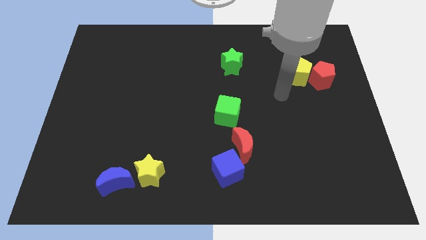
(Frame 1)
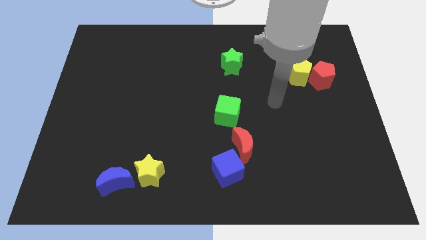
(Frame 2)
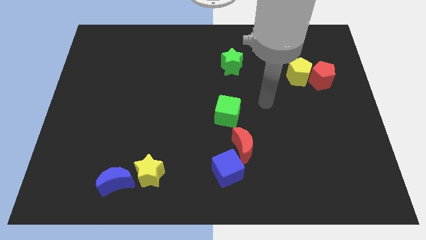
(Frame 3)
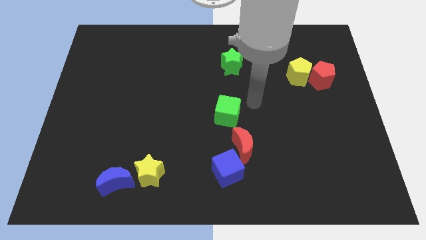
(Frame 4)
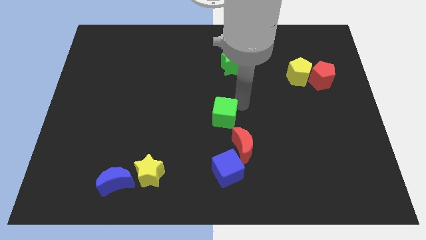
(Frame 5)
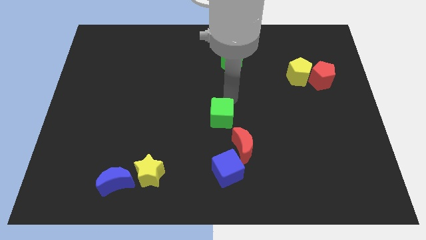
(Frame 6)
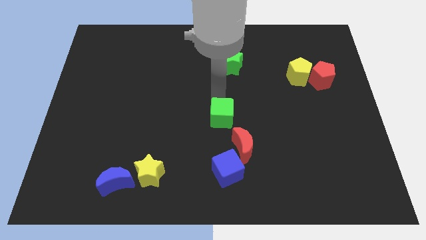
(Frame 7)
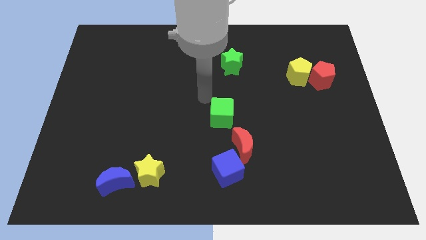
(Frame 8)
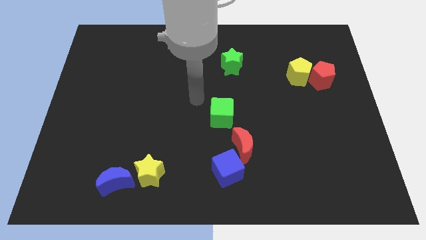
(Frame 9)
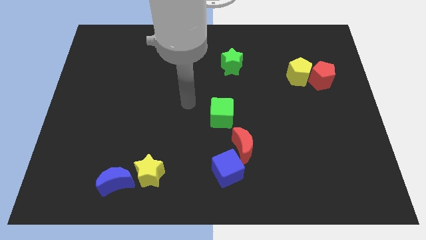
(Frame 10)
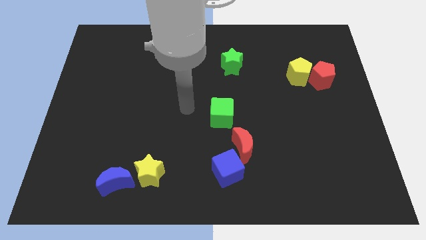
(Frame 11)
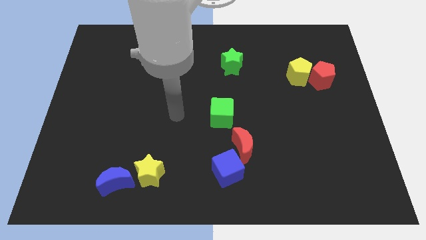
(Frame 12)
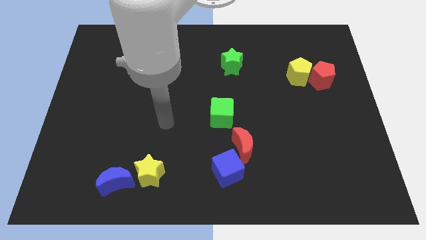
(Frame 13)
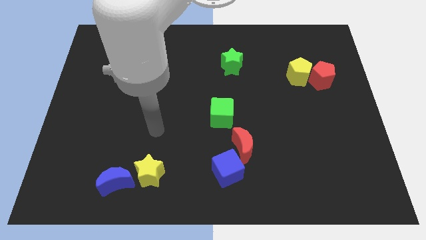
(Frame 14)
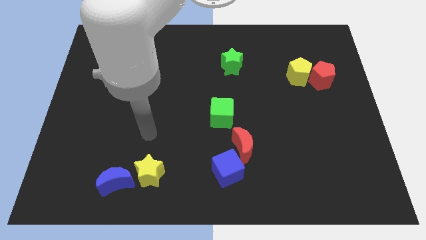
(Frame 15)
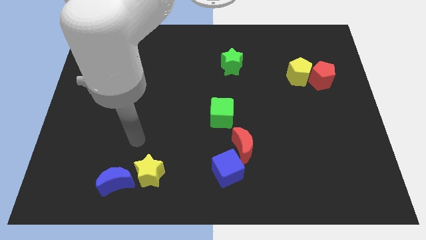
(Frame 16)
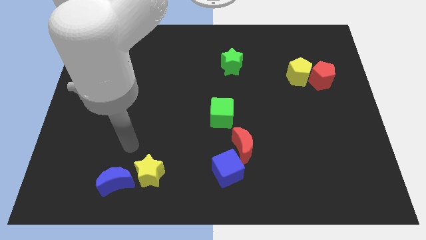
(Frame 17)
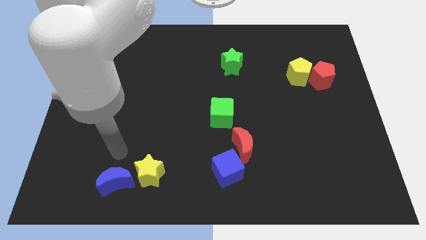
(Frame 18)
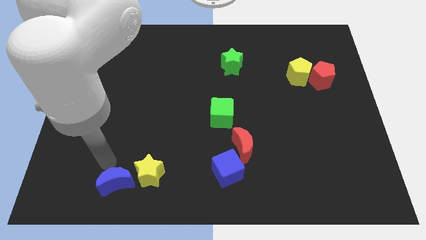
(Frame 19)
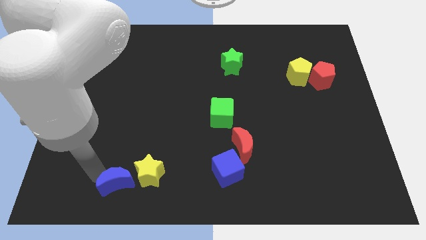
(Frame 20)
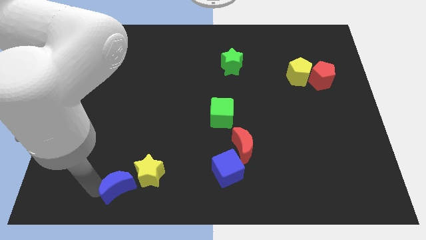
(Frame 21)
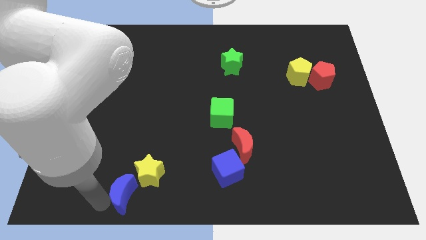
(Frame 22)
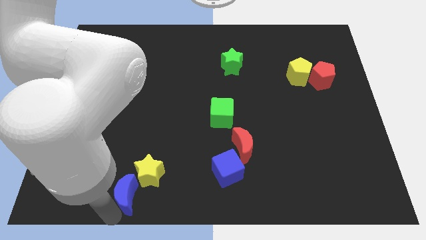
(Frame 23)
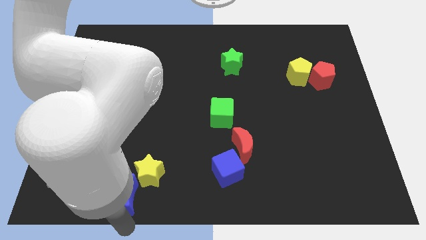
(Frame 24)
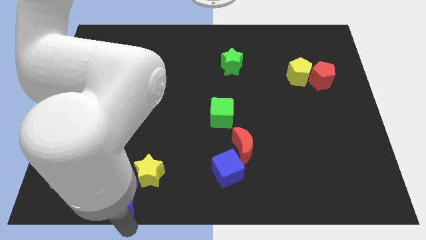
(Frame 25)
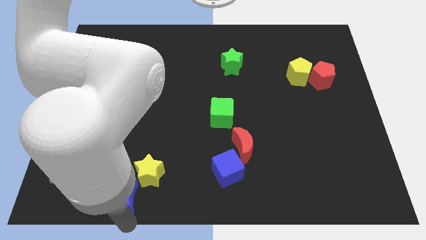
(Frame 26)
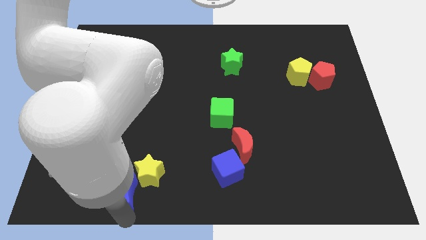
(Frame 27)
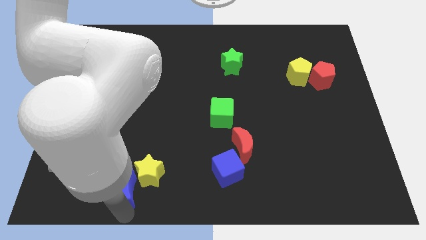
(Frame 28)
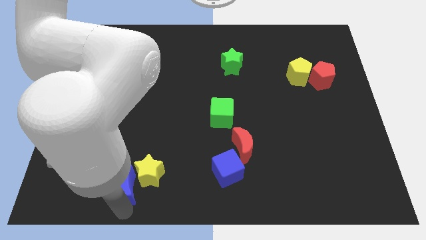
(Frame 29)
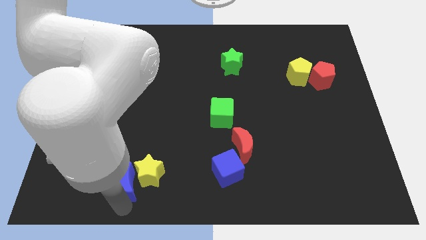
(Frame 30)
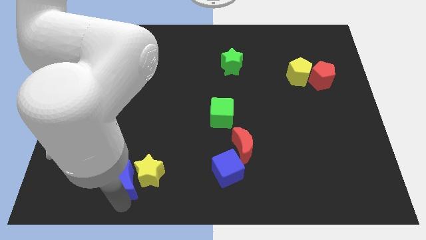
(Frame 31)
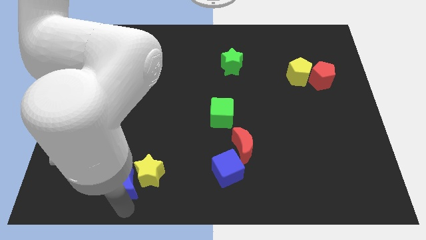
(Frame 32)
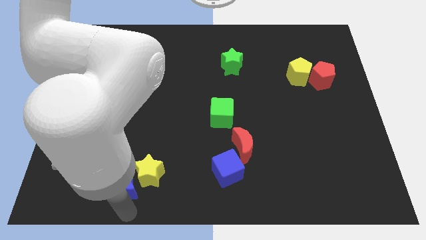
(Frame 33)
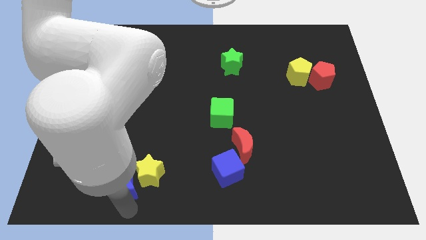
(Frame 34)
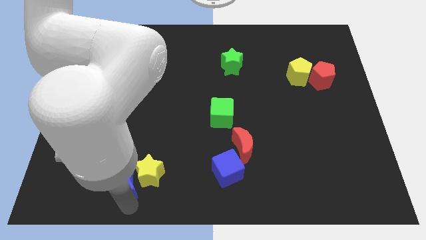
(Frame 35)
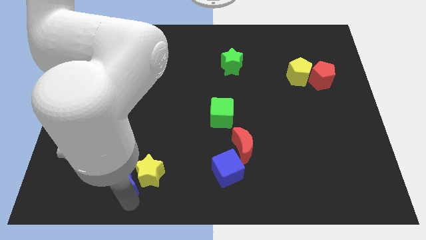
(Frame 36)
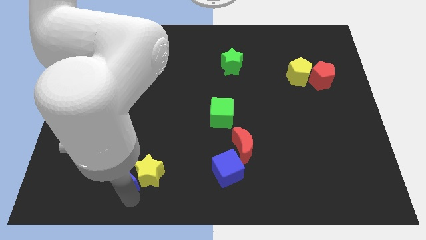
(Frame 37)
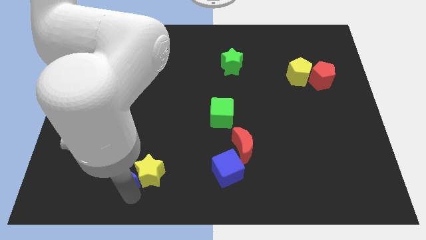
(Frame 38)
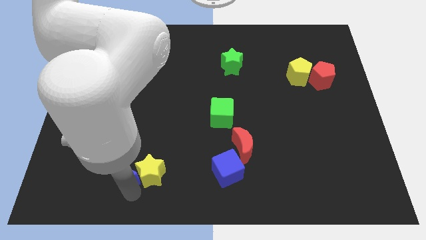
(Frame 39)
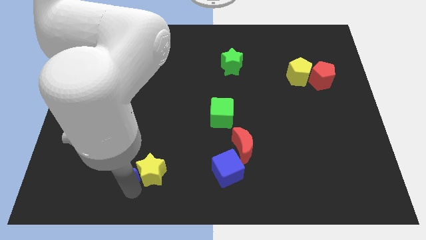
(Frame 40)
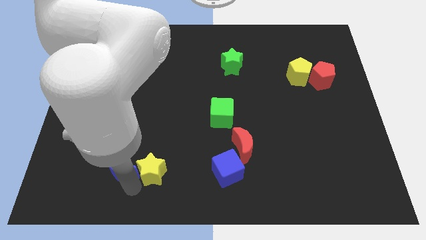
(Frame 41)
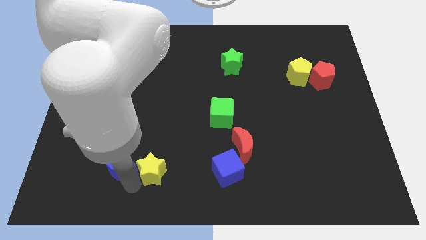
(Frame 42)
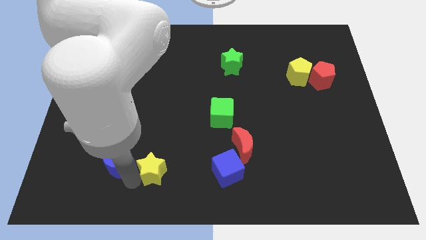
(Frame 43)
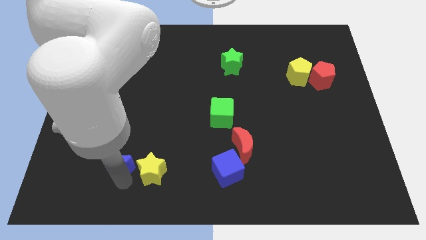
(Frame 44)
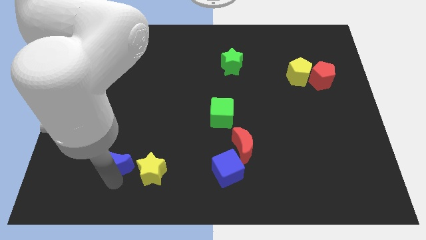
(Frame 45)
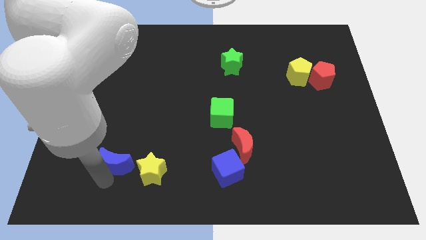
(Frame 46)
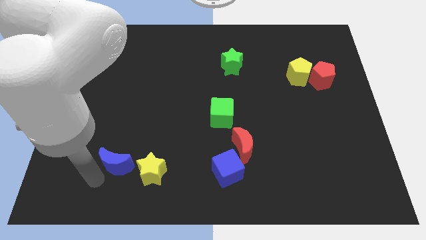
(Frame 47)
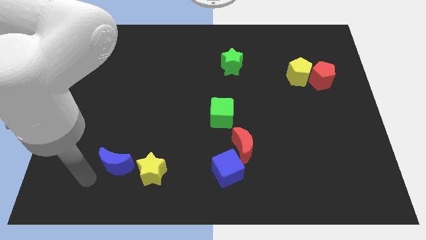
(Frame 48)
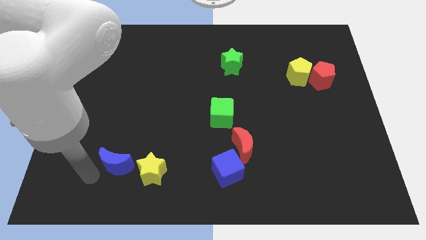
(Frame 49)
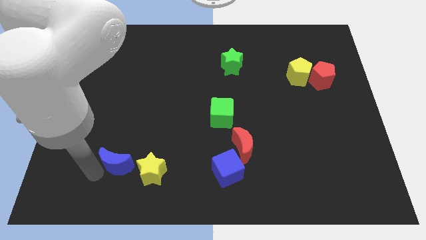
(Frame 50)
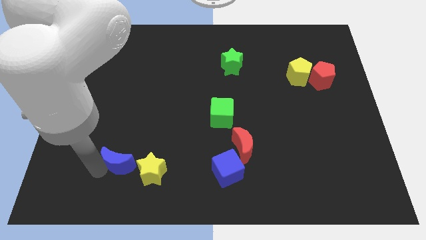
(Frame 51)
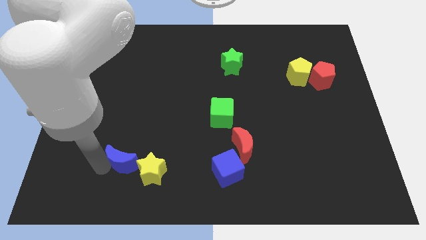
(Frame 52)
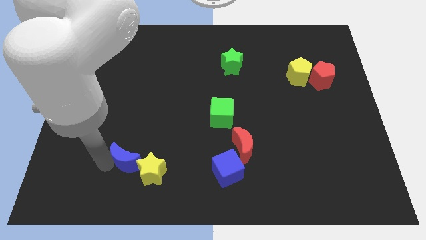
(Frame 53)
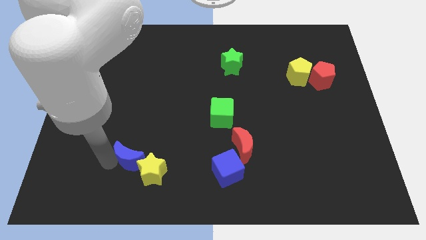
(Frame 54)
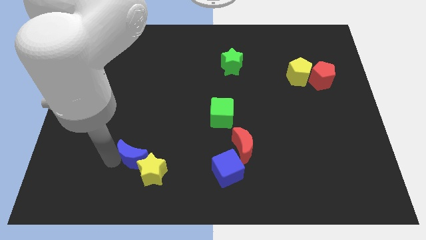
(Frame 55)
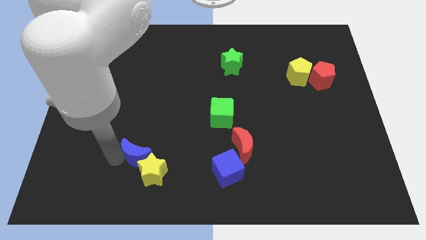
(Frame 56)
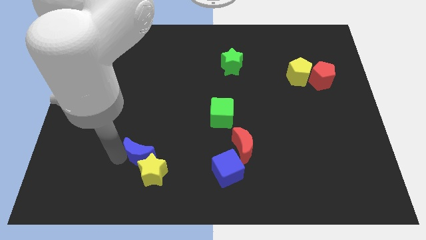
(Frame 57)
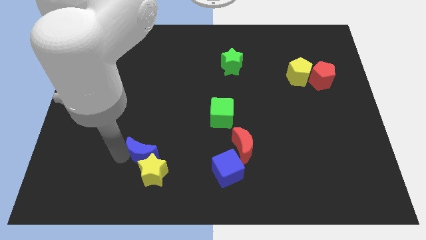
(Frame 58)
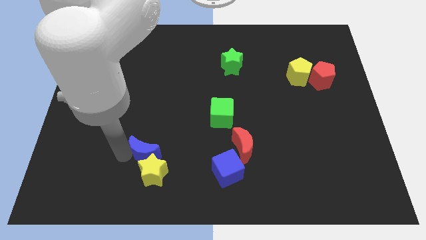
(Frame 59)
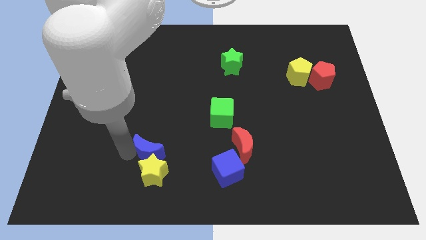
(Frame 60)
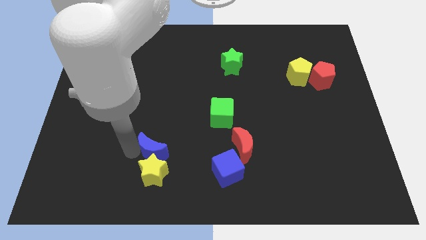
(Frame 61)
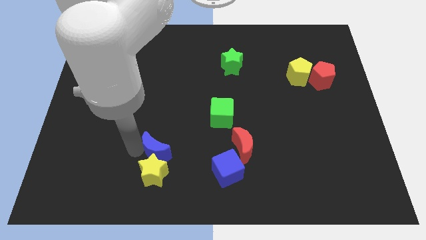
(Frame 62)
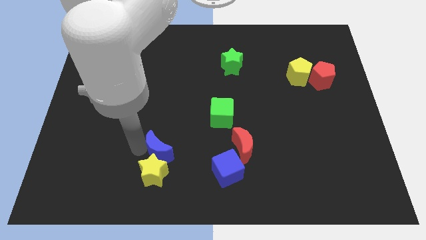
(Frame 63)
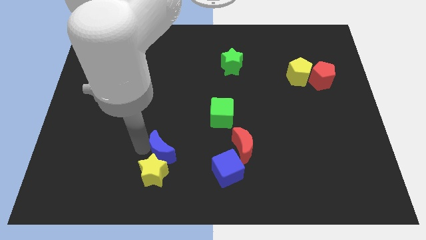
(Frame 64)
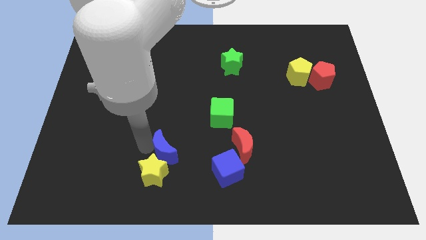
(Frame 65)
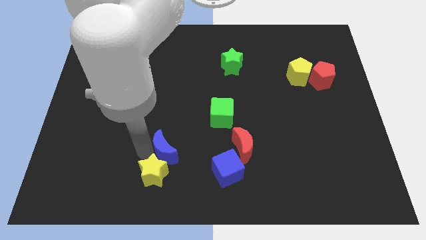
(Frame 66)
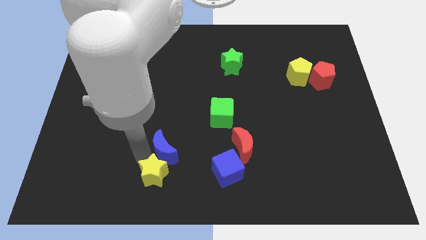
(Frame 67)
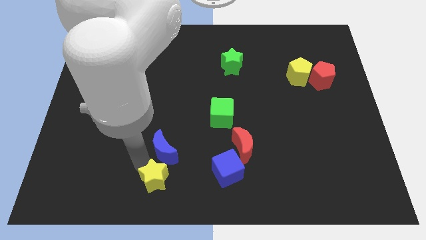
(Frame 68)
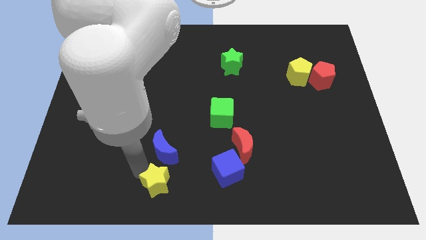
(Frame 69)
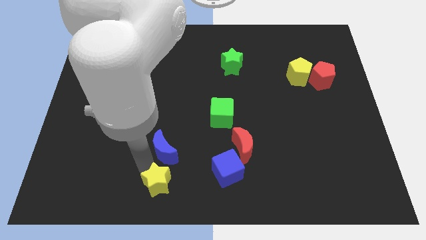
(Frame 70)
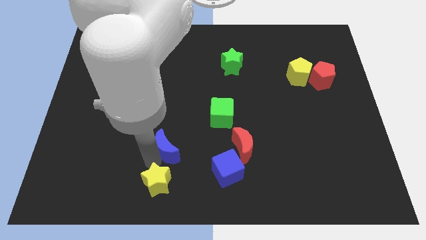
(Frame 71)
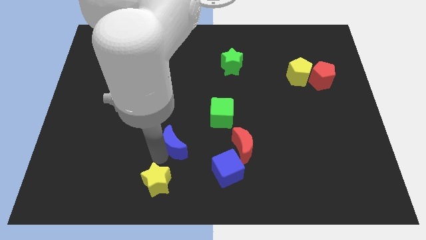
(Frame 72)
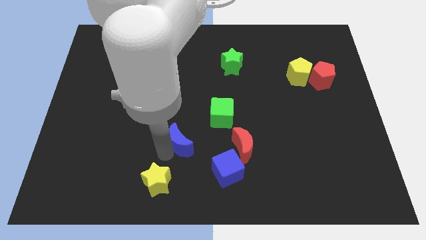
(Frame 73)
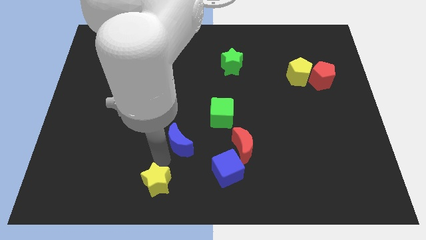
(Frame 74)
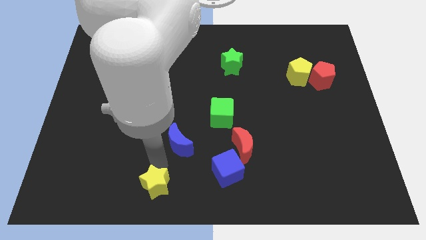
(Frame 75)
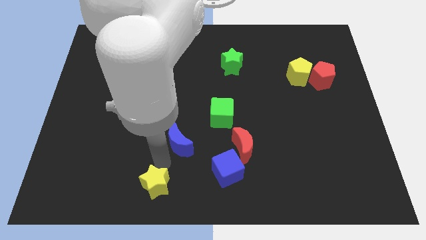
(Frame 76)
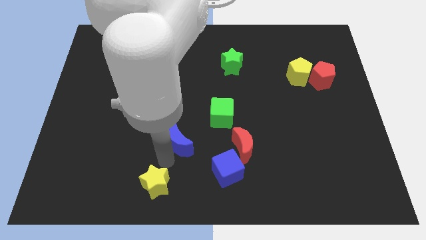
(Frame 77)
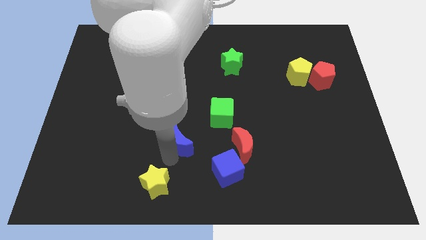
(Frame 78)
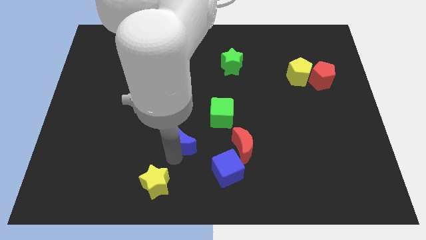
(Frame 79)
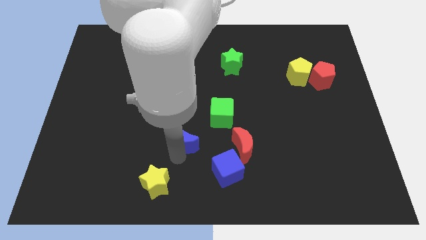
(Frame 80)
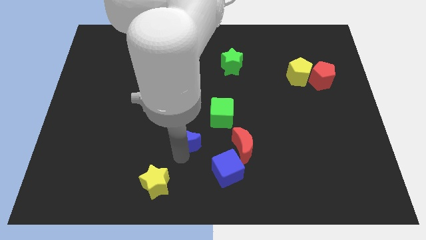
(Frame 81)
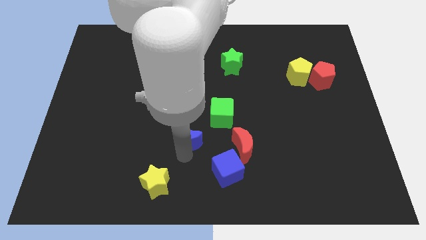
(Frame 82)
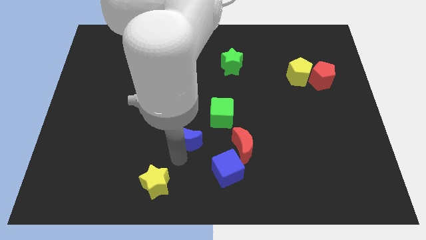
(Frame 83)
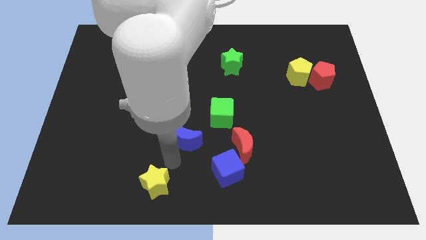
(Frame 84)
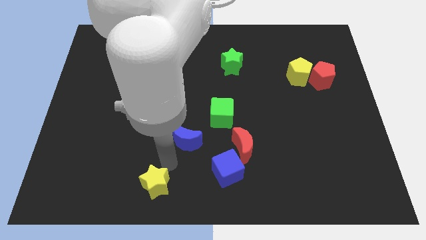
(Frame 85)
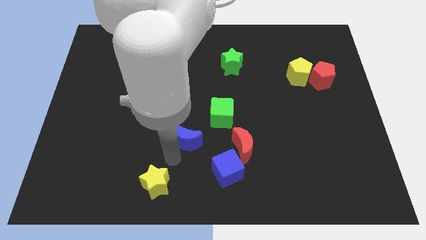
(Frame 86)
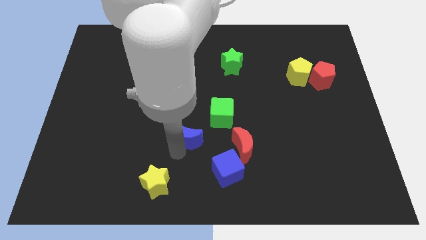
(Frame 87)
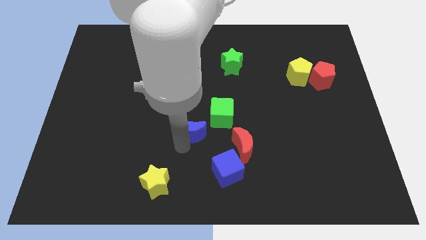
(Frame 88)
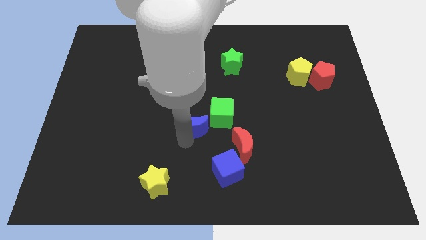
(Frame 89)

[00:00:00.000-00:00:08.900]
push the blue moon up and right diagonally
